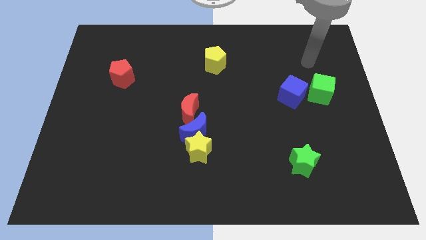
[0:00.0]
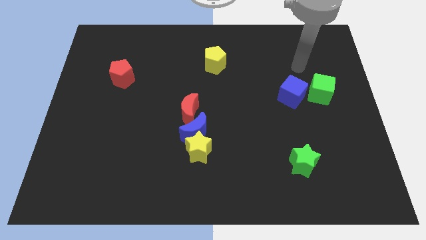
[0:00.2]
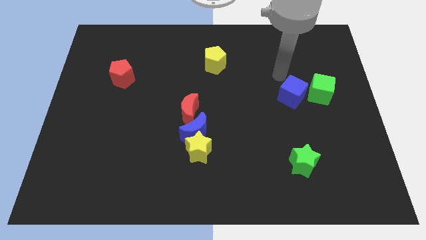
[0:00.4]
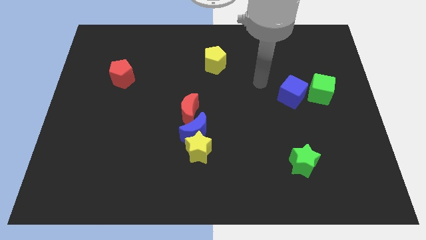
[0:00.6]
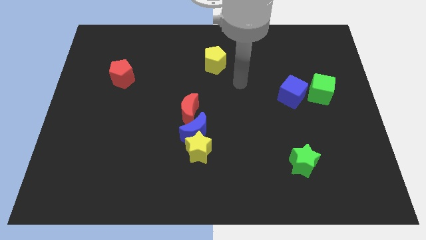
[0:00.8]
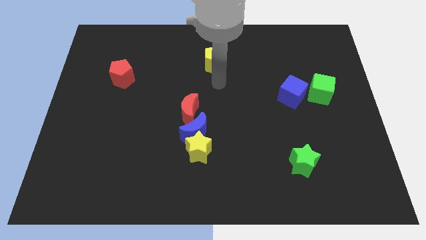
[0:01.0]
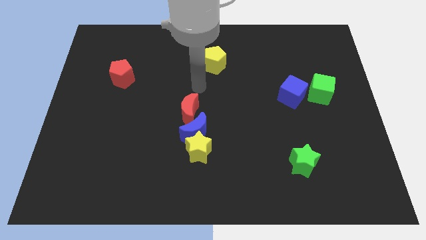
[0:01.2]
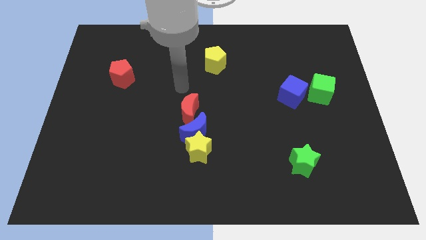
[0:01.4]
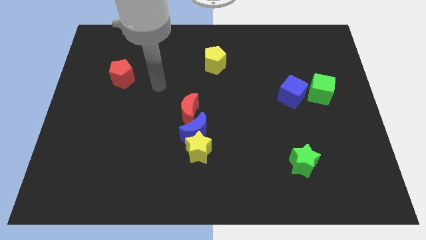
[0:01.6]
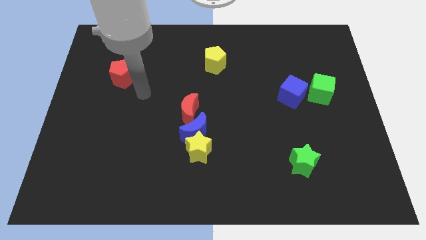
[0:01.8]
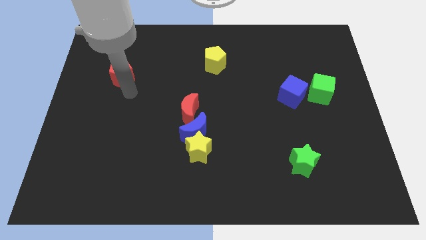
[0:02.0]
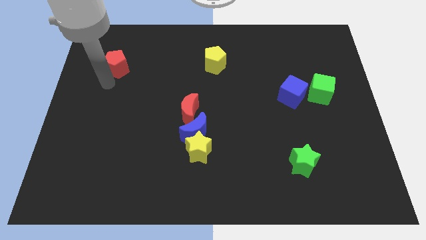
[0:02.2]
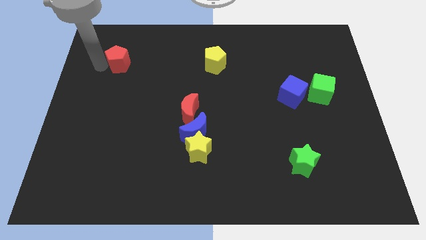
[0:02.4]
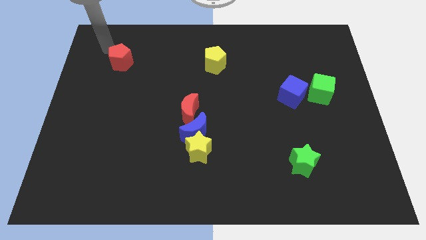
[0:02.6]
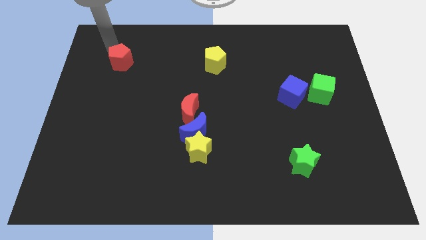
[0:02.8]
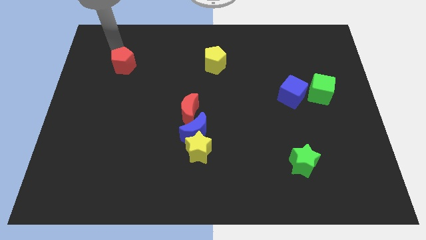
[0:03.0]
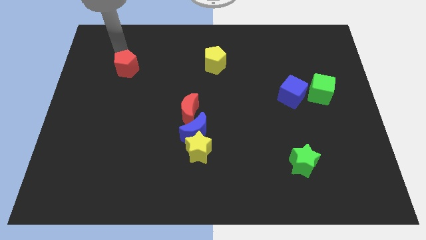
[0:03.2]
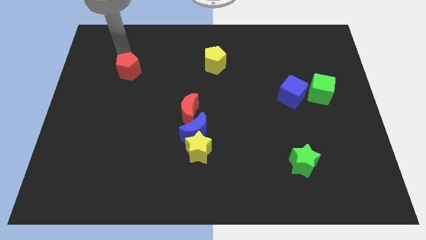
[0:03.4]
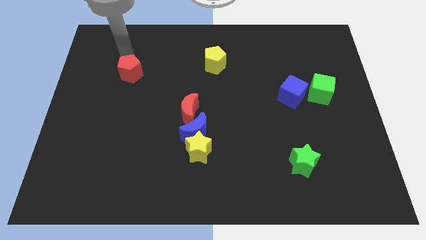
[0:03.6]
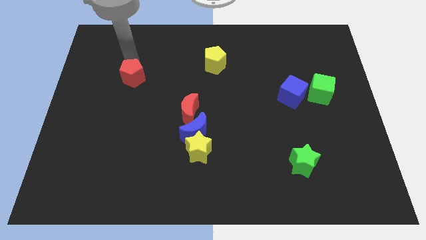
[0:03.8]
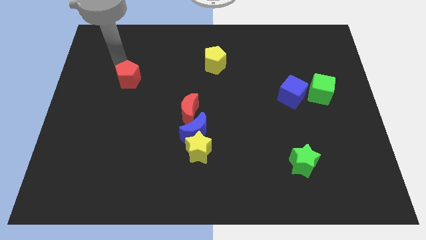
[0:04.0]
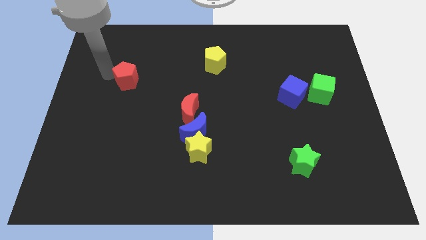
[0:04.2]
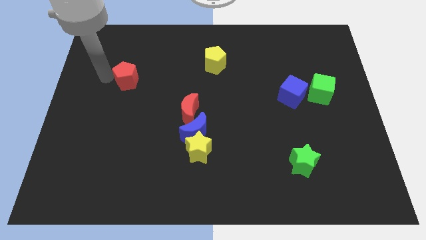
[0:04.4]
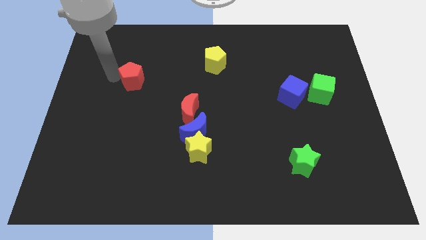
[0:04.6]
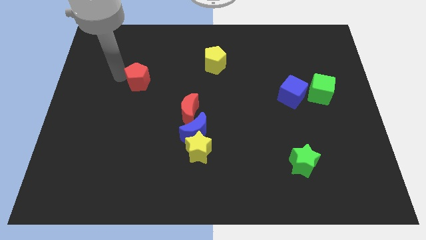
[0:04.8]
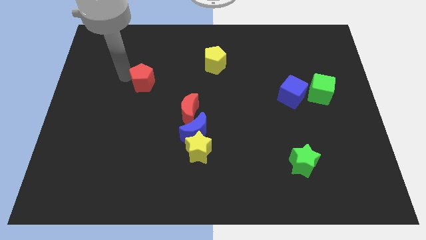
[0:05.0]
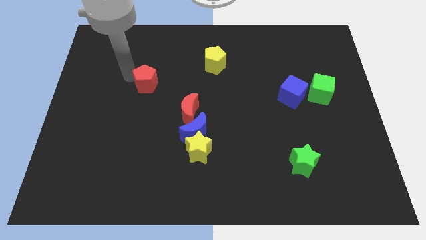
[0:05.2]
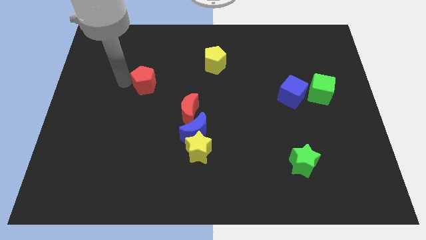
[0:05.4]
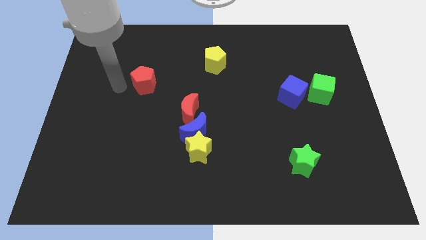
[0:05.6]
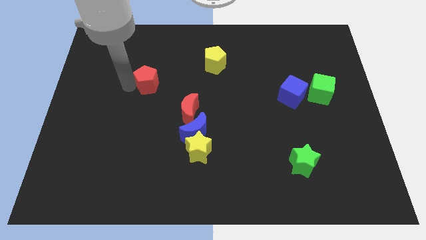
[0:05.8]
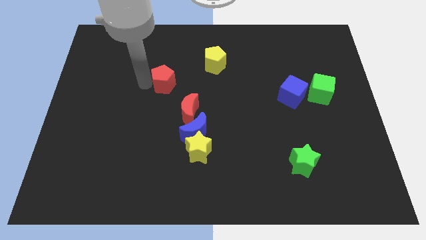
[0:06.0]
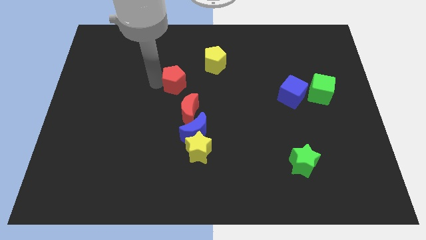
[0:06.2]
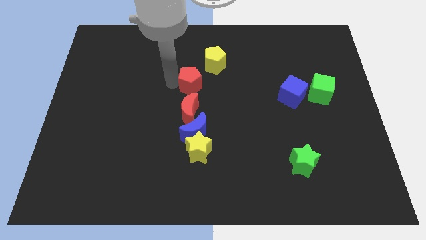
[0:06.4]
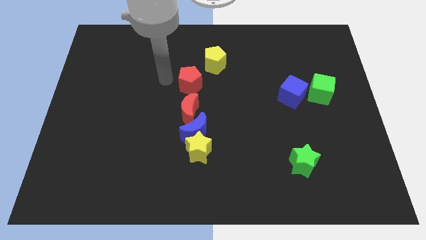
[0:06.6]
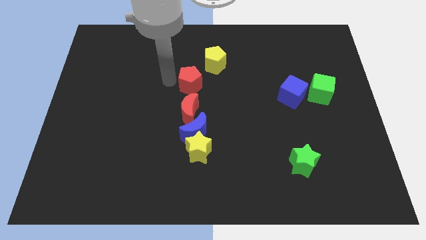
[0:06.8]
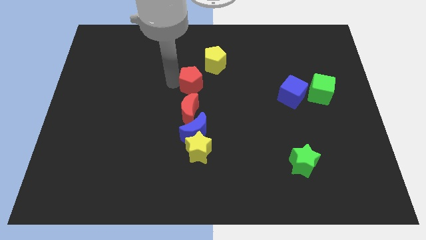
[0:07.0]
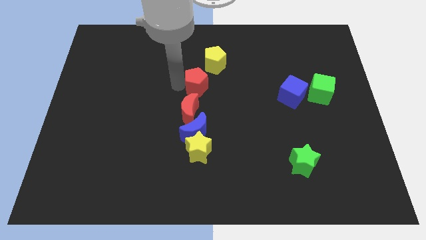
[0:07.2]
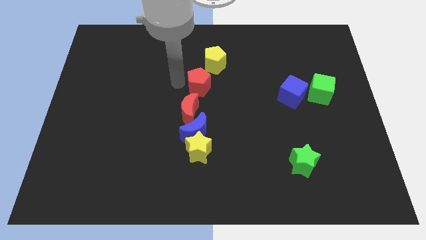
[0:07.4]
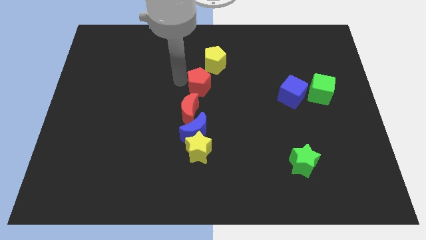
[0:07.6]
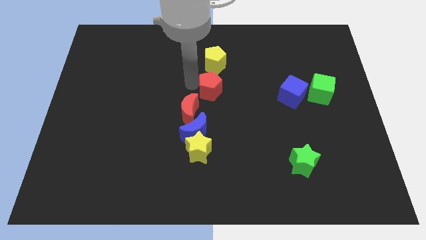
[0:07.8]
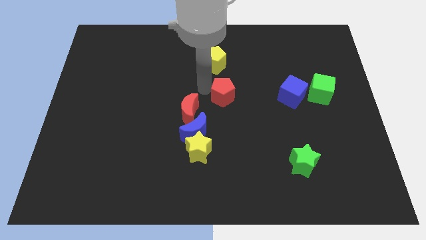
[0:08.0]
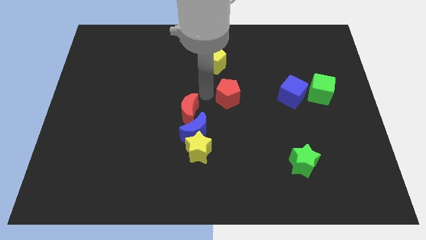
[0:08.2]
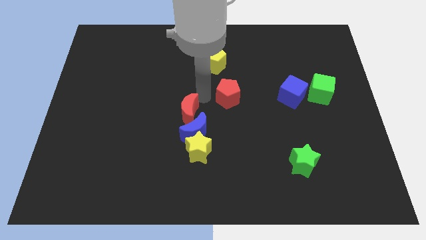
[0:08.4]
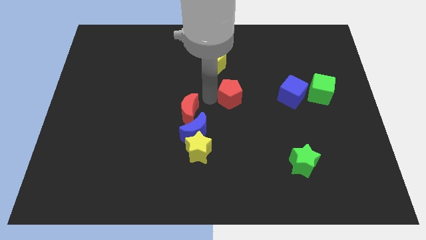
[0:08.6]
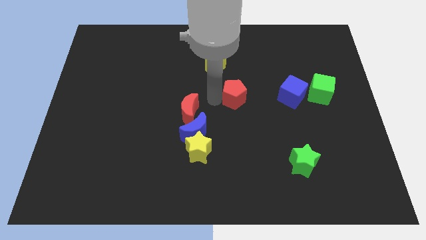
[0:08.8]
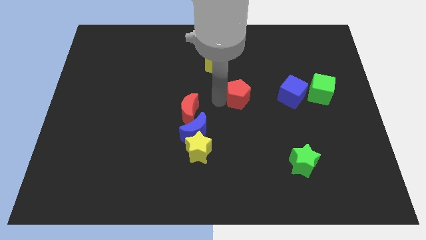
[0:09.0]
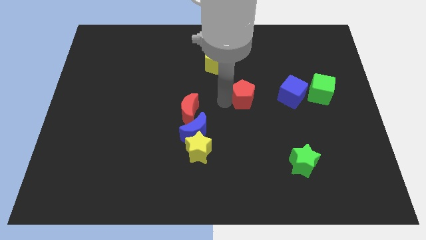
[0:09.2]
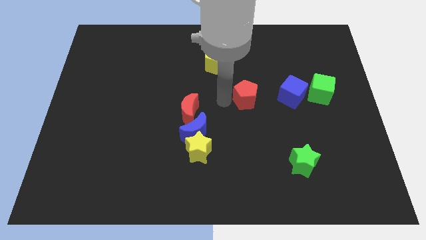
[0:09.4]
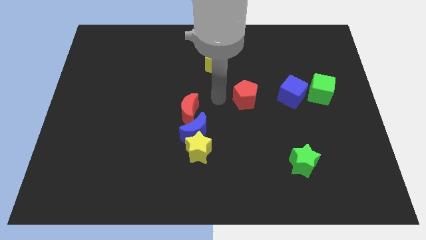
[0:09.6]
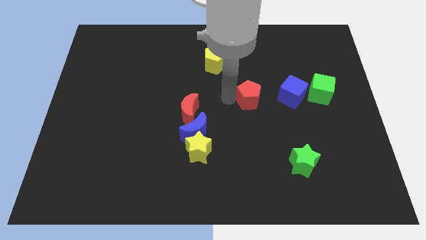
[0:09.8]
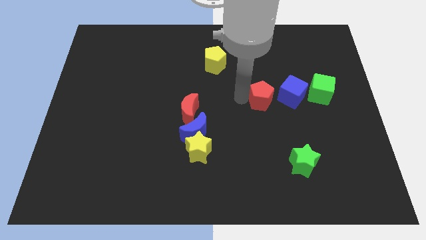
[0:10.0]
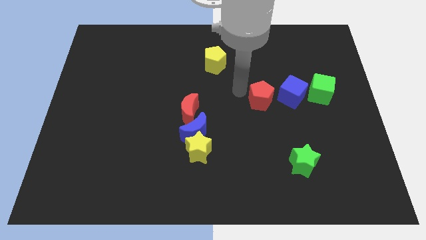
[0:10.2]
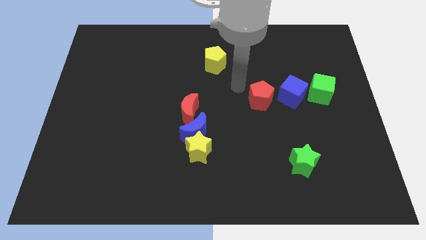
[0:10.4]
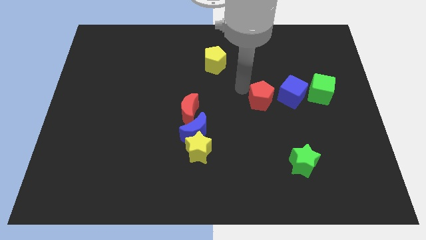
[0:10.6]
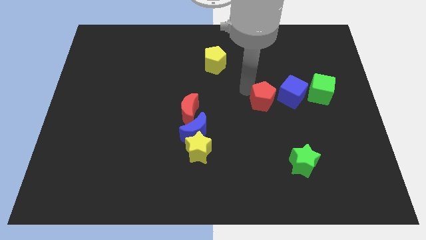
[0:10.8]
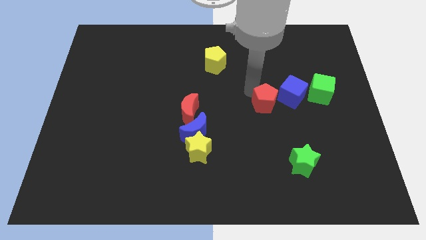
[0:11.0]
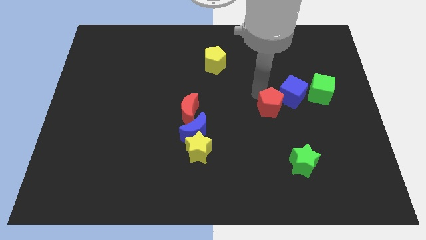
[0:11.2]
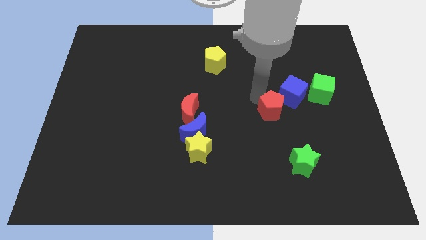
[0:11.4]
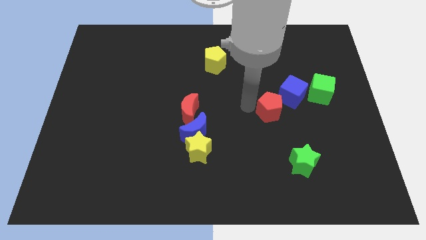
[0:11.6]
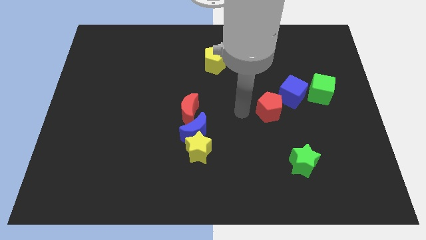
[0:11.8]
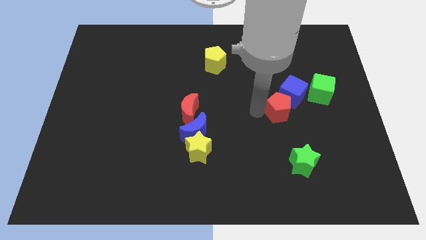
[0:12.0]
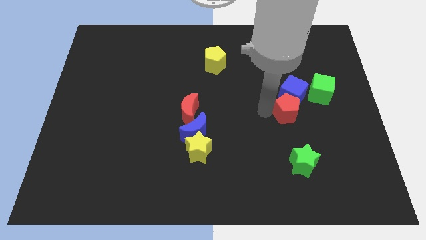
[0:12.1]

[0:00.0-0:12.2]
move the red pentagon diagonally down and to the left of the green cube
